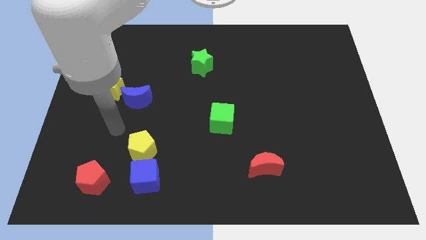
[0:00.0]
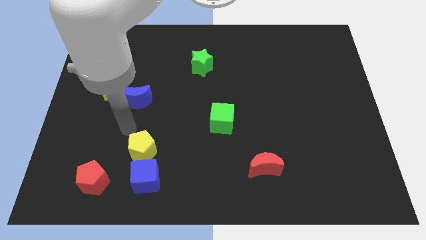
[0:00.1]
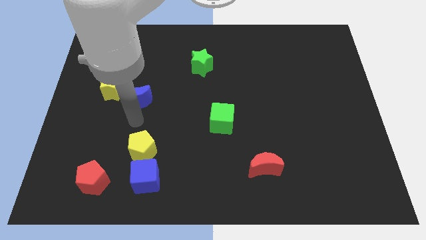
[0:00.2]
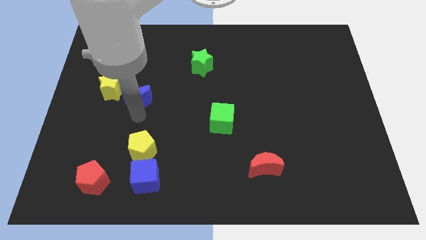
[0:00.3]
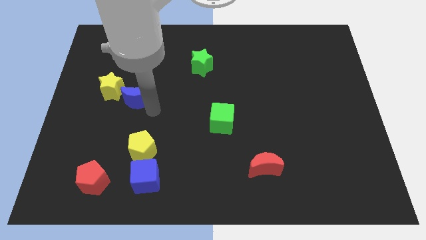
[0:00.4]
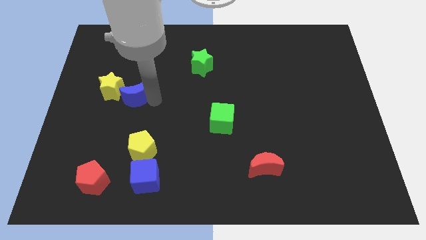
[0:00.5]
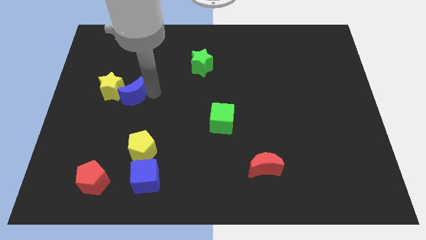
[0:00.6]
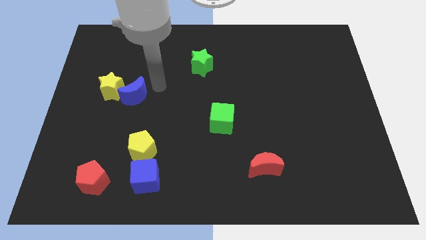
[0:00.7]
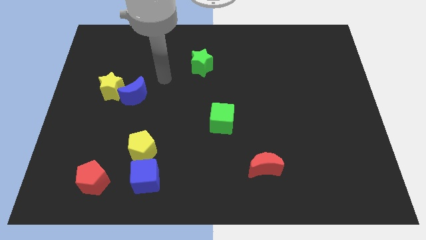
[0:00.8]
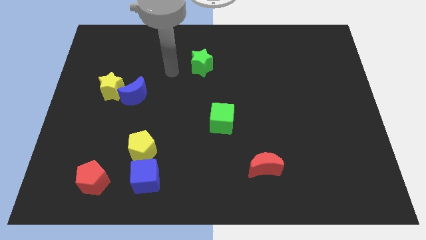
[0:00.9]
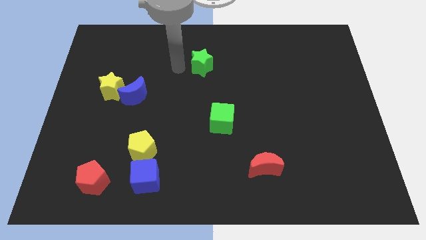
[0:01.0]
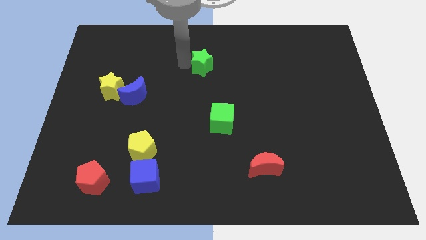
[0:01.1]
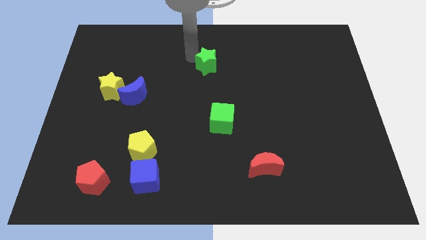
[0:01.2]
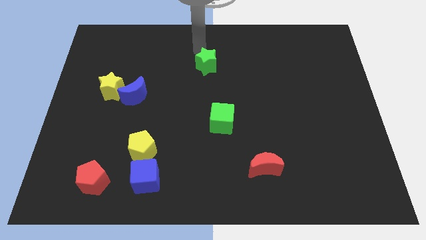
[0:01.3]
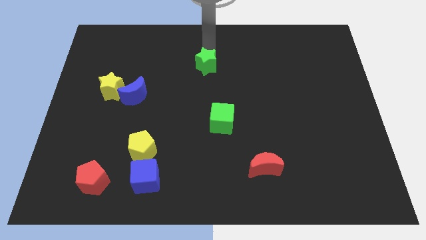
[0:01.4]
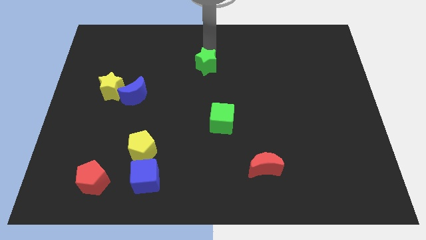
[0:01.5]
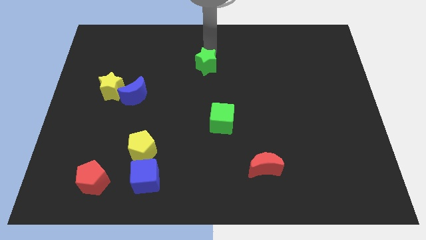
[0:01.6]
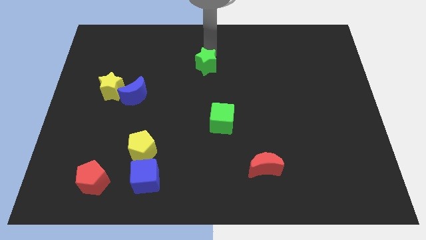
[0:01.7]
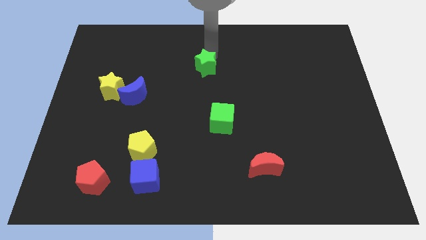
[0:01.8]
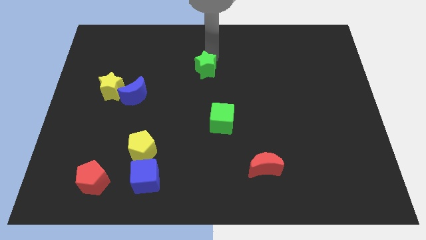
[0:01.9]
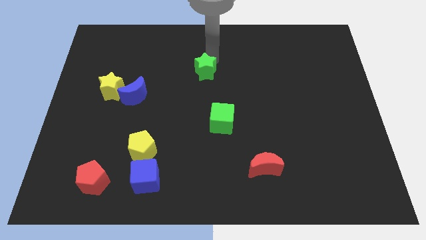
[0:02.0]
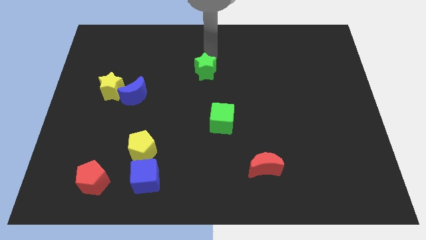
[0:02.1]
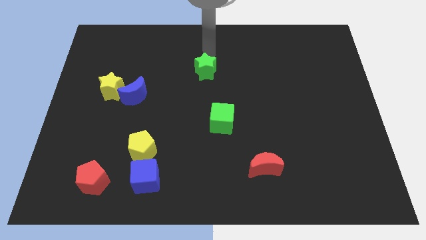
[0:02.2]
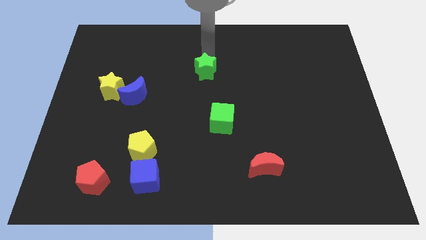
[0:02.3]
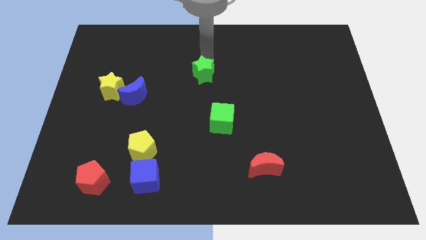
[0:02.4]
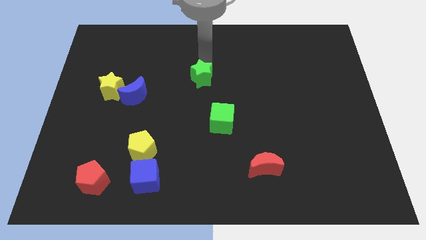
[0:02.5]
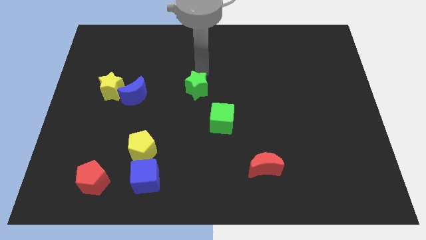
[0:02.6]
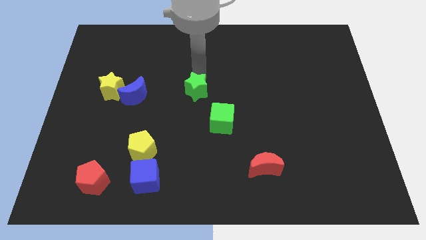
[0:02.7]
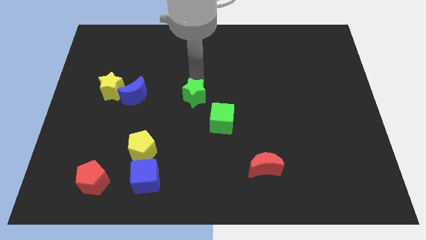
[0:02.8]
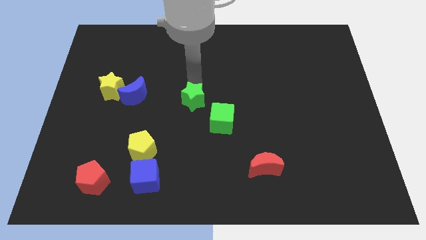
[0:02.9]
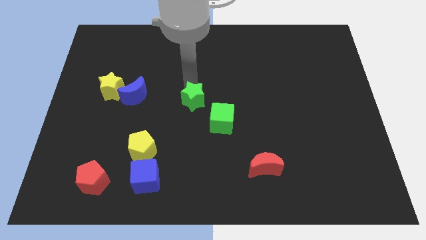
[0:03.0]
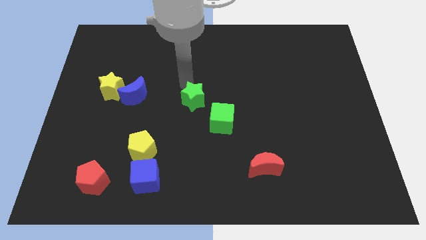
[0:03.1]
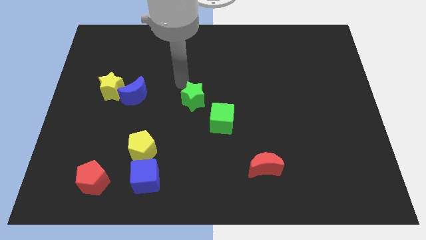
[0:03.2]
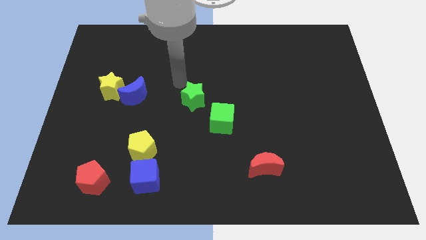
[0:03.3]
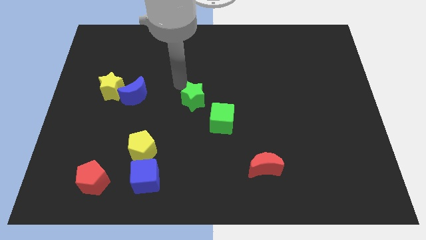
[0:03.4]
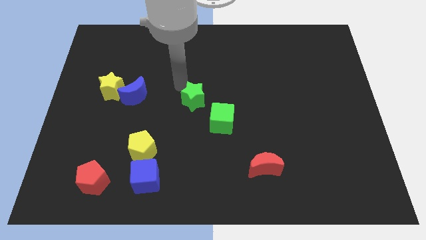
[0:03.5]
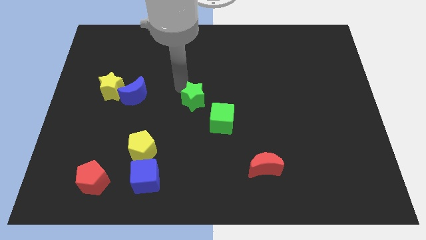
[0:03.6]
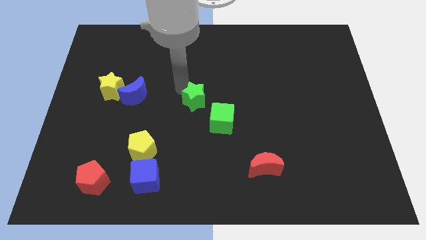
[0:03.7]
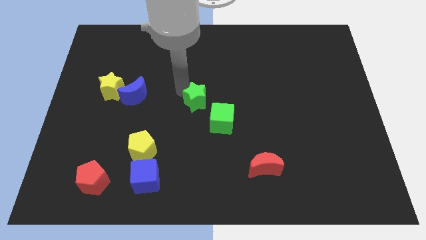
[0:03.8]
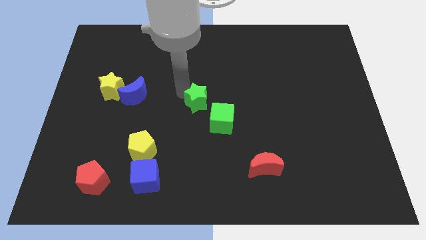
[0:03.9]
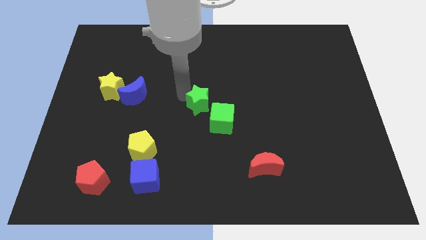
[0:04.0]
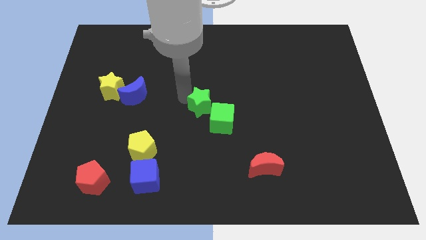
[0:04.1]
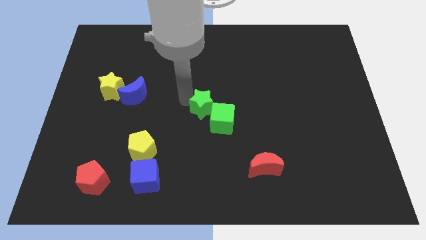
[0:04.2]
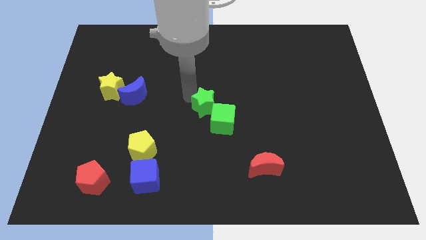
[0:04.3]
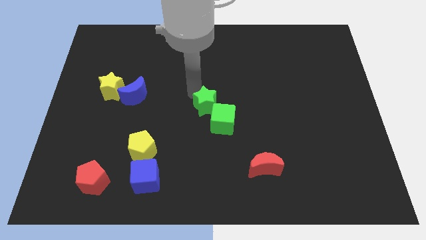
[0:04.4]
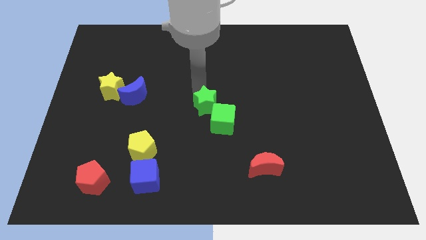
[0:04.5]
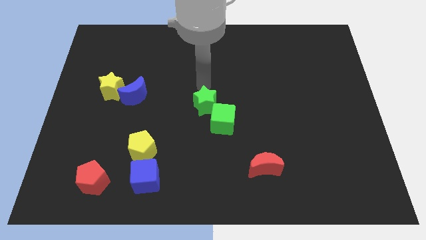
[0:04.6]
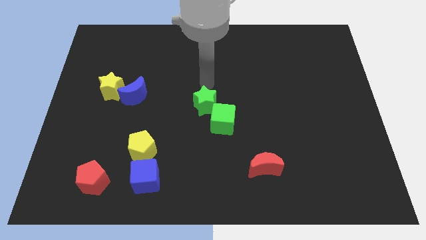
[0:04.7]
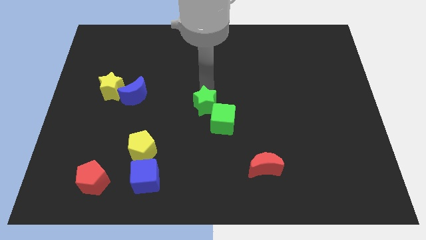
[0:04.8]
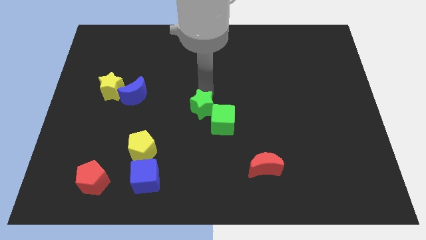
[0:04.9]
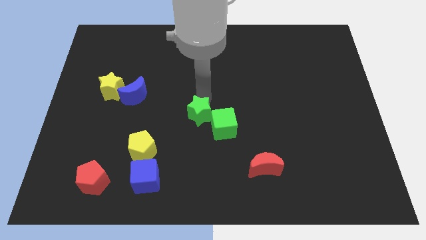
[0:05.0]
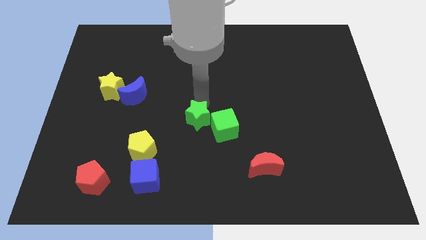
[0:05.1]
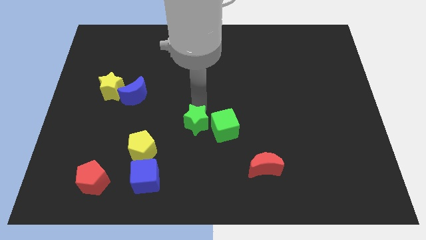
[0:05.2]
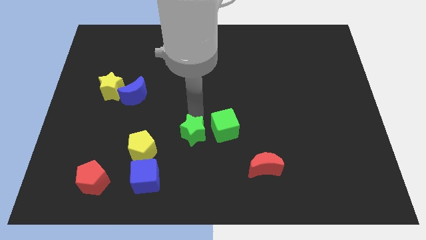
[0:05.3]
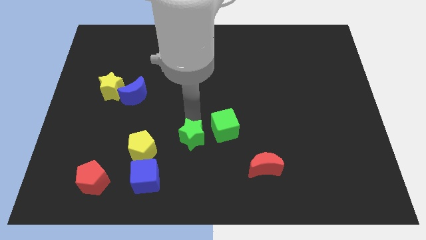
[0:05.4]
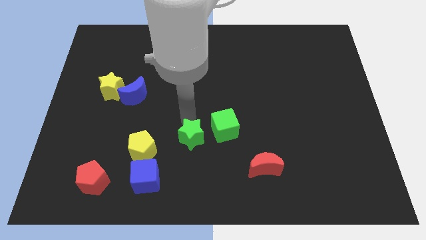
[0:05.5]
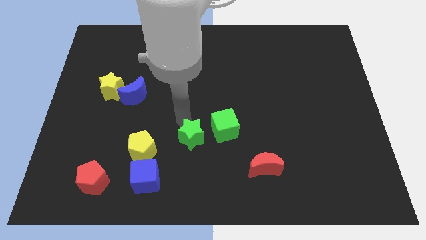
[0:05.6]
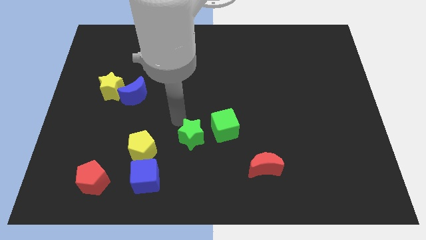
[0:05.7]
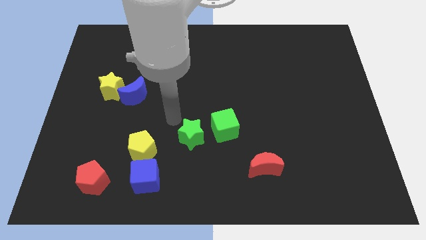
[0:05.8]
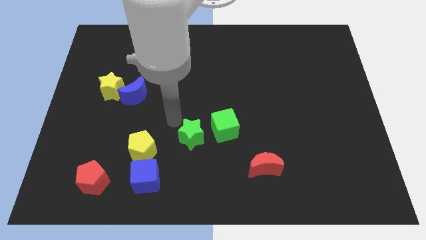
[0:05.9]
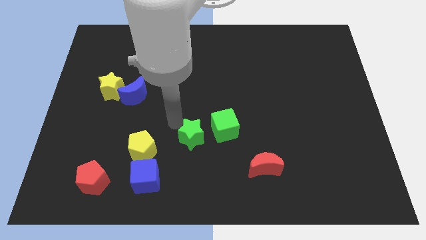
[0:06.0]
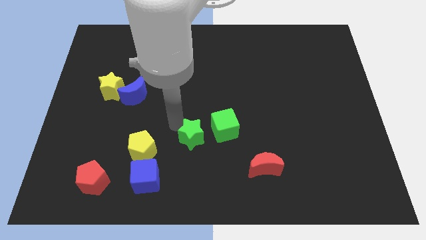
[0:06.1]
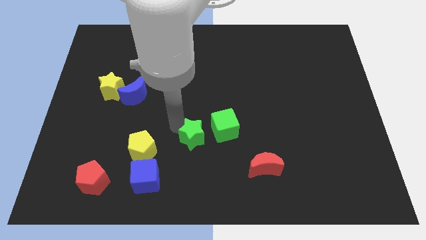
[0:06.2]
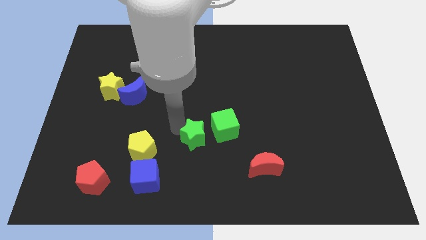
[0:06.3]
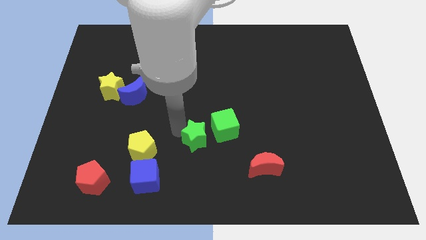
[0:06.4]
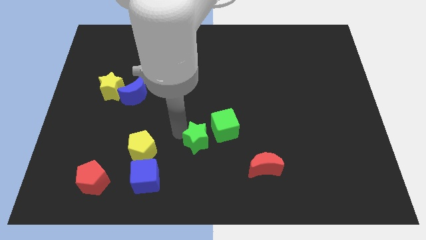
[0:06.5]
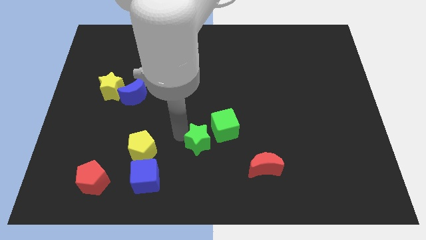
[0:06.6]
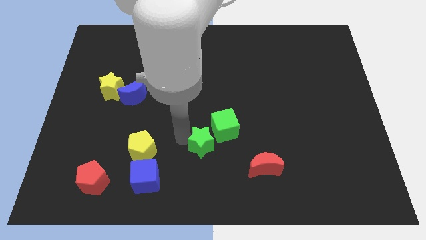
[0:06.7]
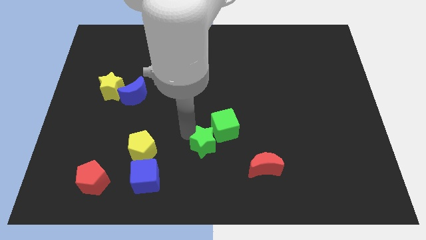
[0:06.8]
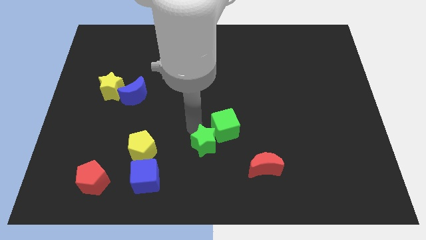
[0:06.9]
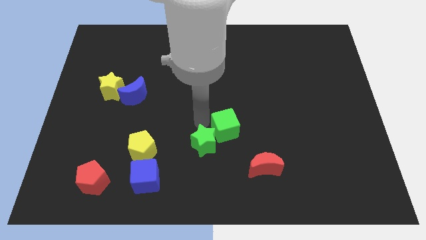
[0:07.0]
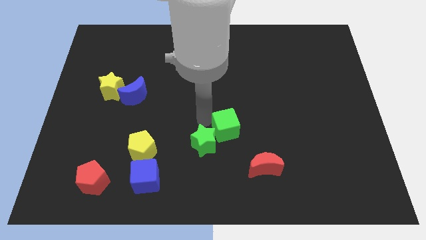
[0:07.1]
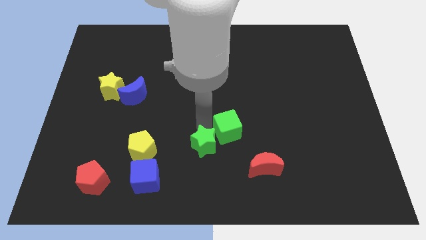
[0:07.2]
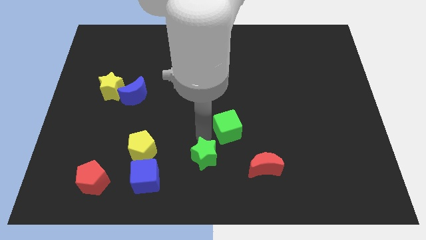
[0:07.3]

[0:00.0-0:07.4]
put the green star to the bottom
